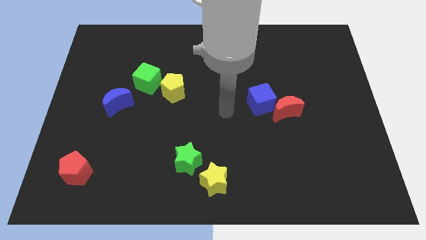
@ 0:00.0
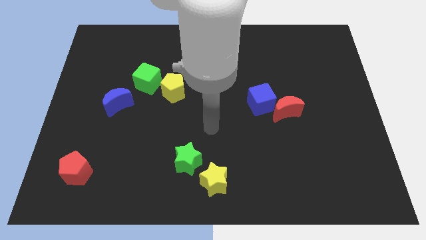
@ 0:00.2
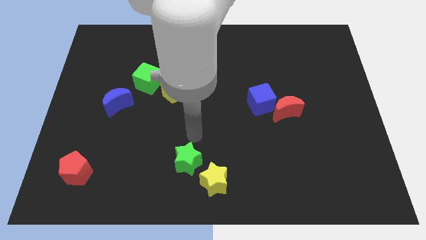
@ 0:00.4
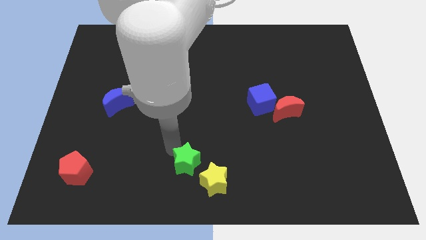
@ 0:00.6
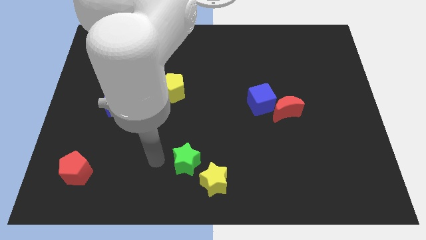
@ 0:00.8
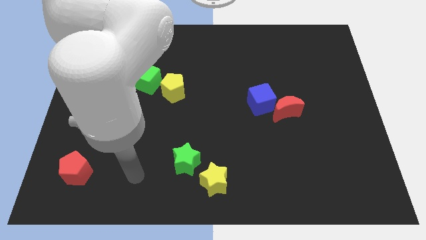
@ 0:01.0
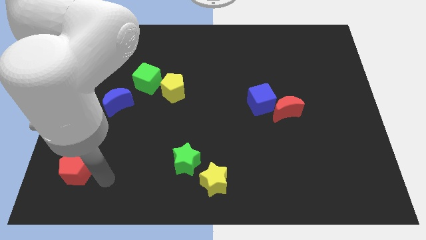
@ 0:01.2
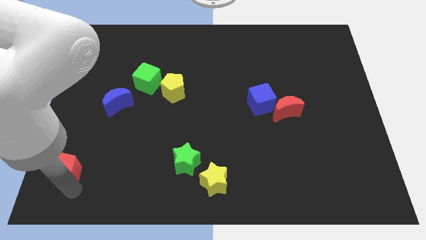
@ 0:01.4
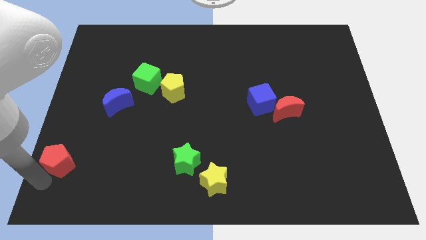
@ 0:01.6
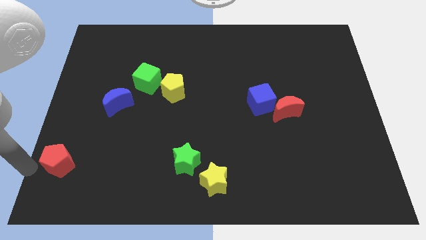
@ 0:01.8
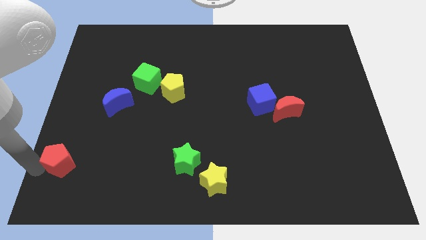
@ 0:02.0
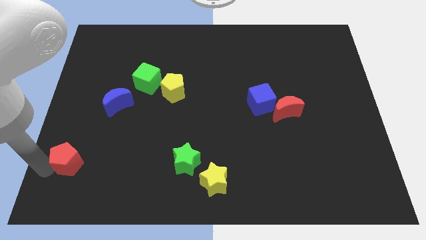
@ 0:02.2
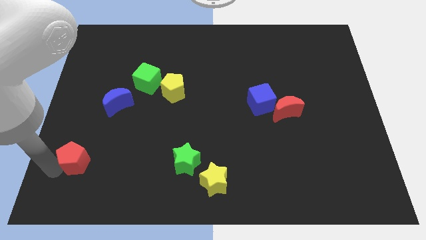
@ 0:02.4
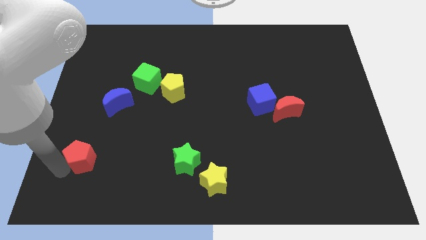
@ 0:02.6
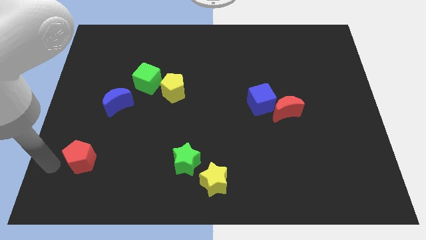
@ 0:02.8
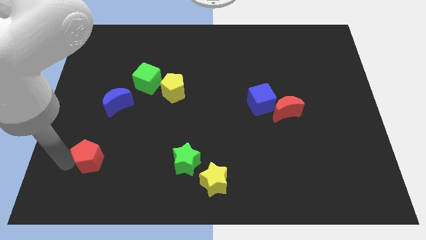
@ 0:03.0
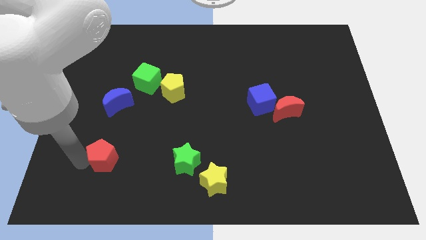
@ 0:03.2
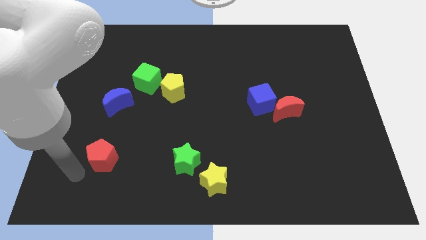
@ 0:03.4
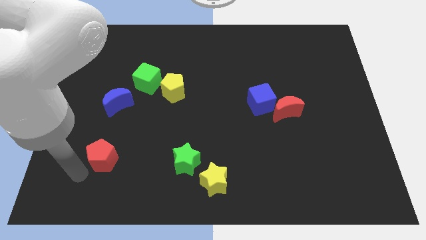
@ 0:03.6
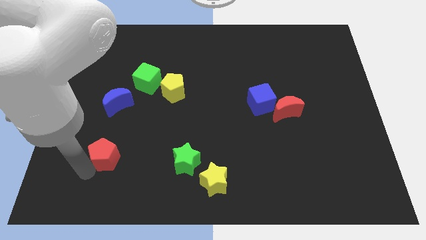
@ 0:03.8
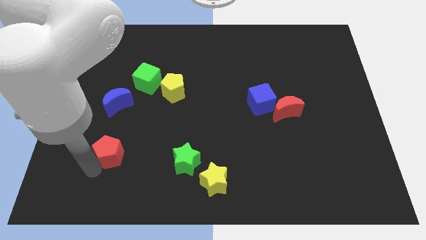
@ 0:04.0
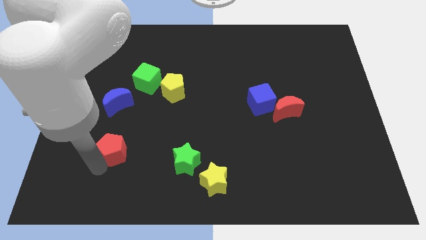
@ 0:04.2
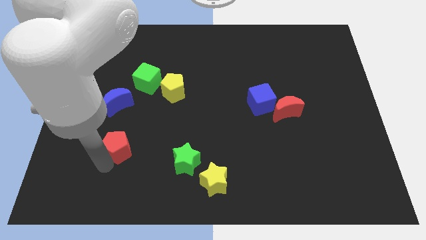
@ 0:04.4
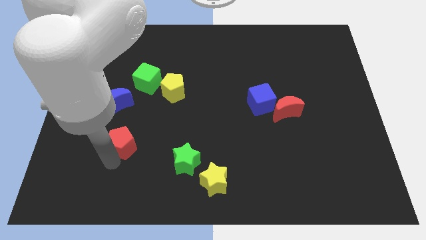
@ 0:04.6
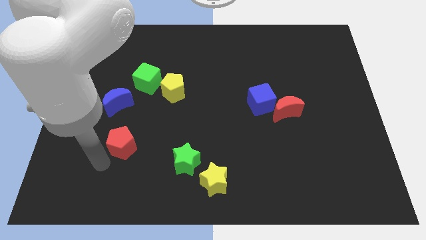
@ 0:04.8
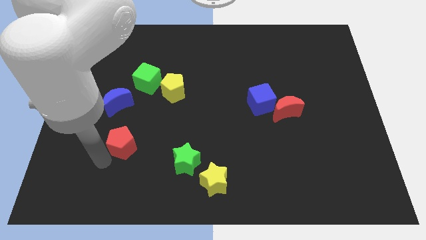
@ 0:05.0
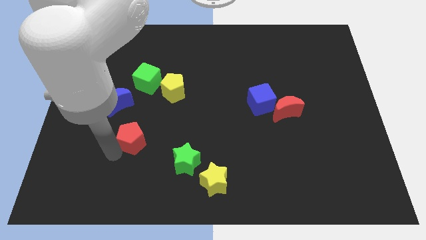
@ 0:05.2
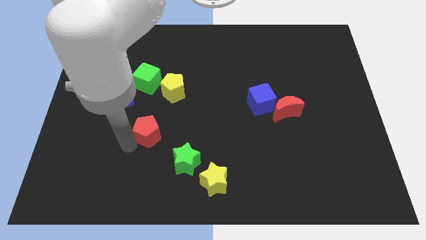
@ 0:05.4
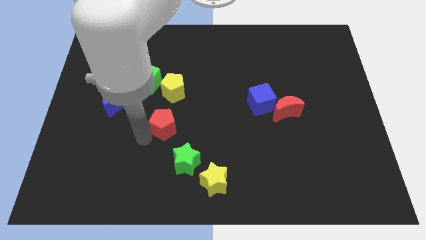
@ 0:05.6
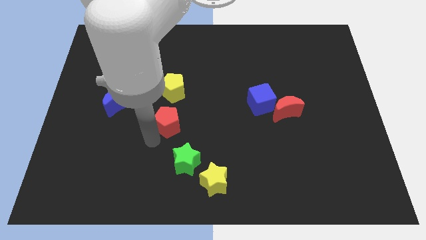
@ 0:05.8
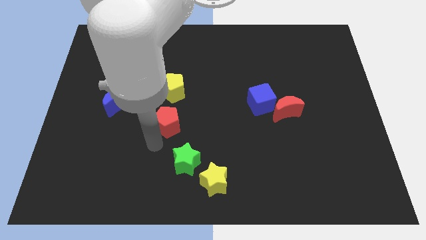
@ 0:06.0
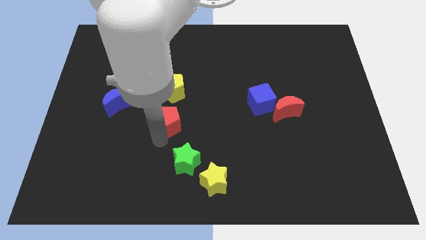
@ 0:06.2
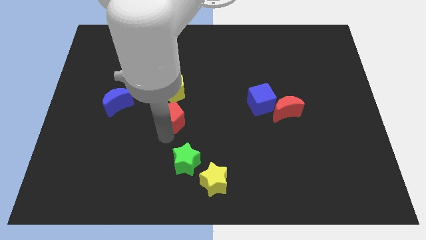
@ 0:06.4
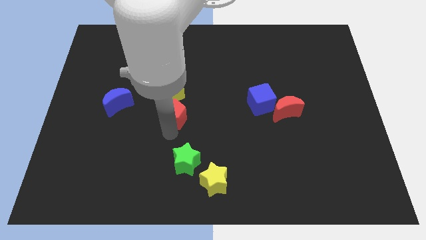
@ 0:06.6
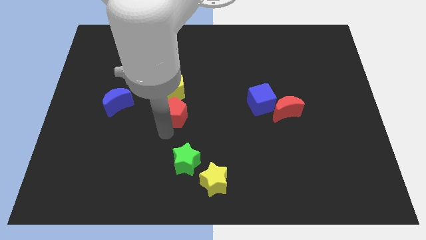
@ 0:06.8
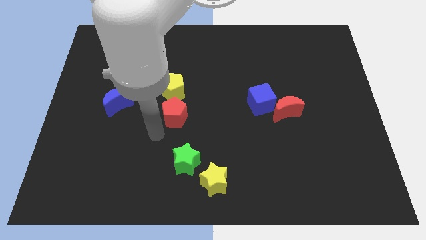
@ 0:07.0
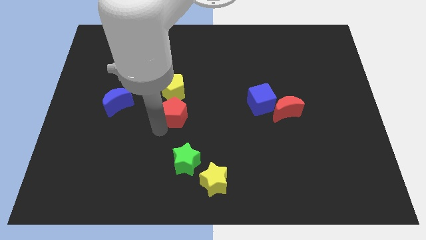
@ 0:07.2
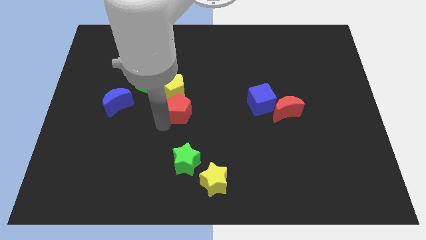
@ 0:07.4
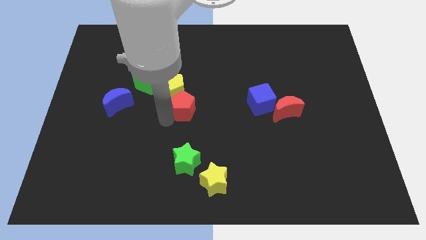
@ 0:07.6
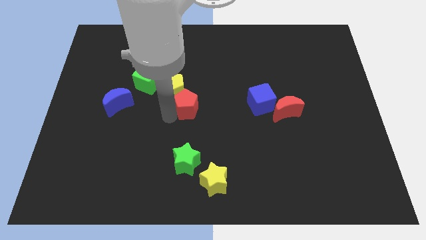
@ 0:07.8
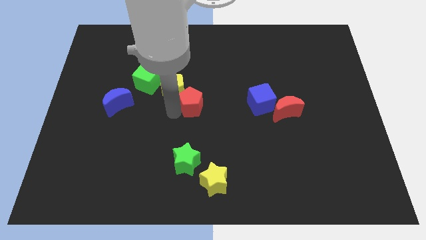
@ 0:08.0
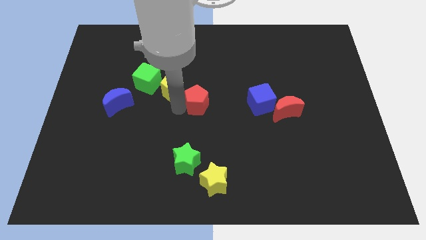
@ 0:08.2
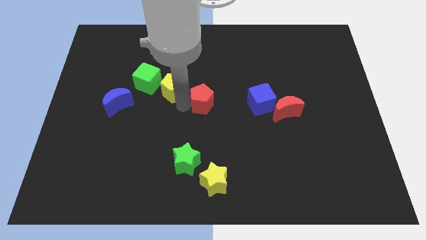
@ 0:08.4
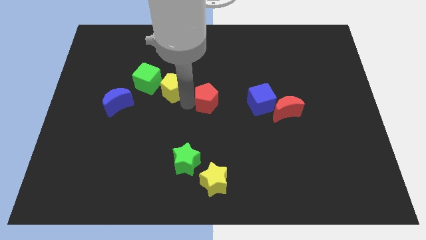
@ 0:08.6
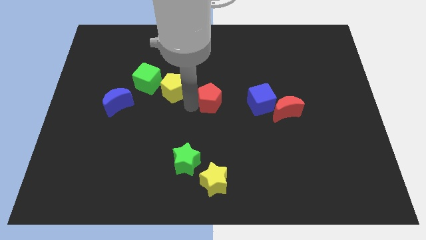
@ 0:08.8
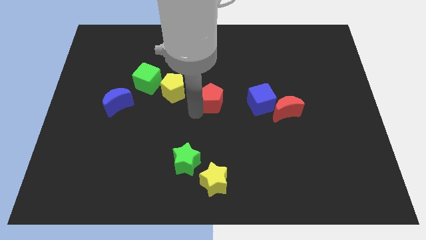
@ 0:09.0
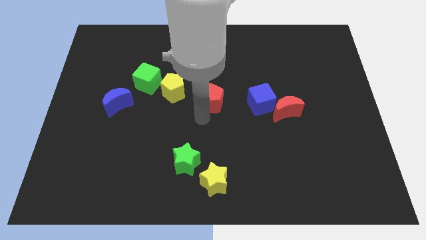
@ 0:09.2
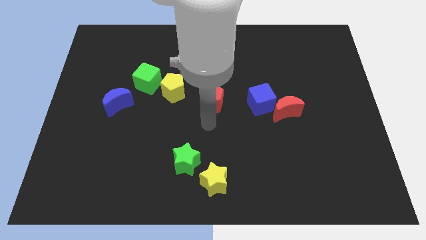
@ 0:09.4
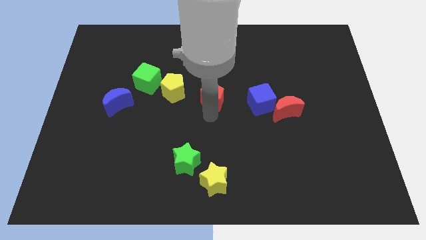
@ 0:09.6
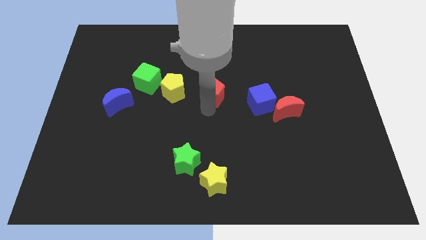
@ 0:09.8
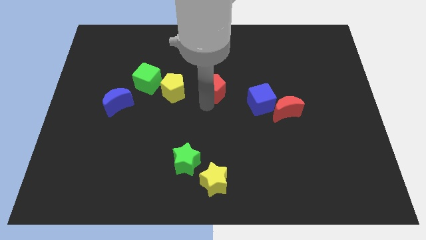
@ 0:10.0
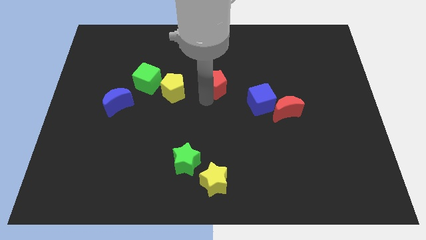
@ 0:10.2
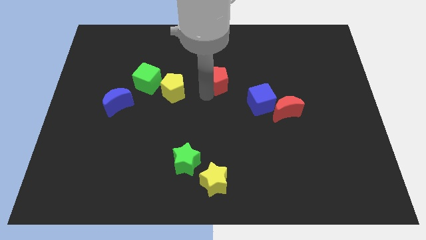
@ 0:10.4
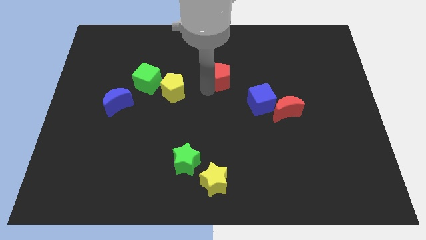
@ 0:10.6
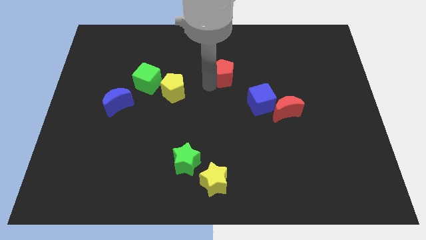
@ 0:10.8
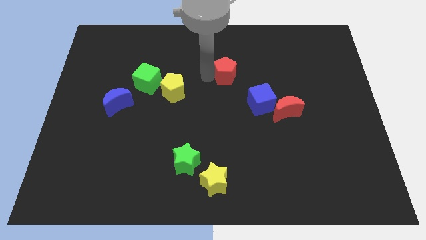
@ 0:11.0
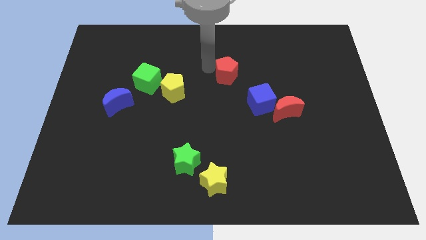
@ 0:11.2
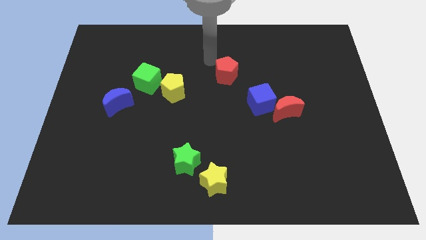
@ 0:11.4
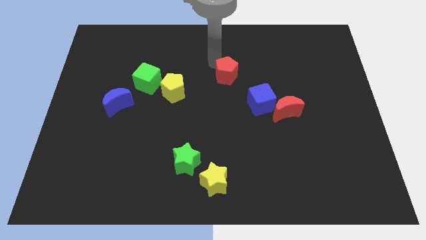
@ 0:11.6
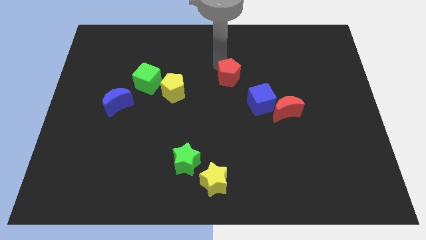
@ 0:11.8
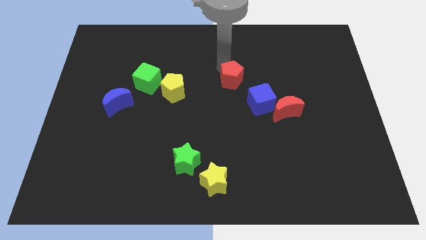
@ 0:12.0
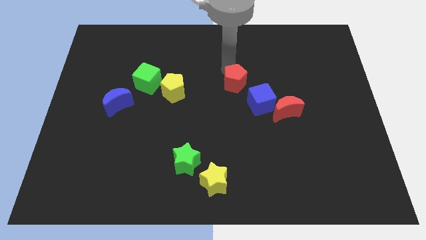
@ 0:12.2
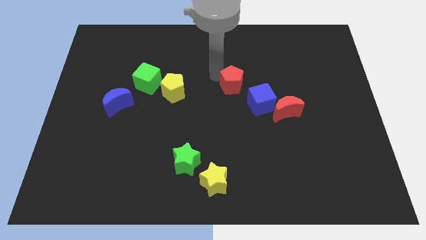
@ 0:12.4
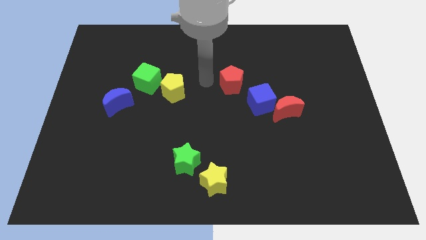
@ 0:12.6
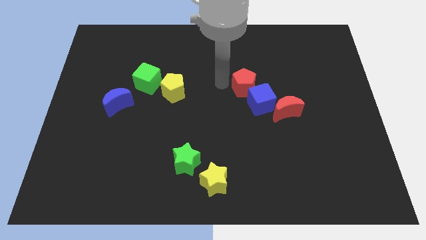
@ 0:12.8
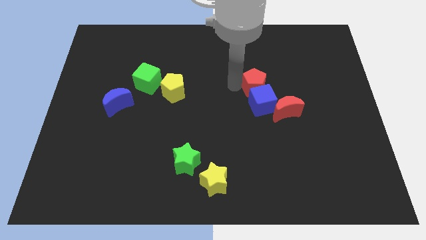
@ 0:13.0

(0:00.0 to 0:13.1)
push the red pentagon to the top right of the blue cube
